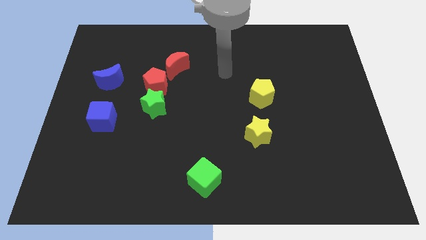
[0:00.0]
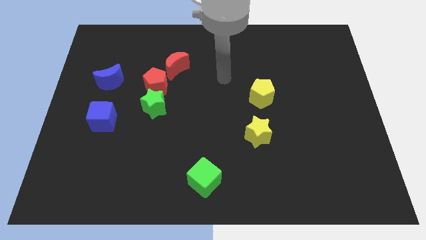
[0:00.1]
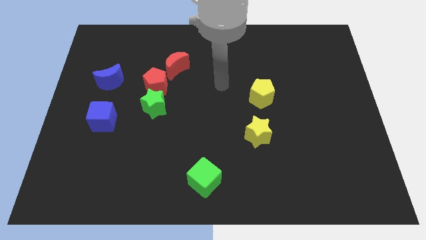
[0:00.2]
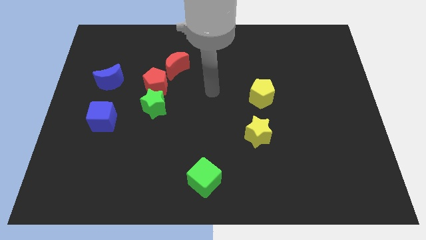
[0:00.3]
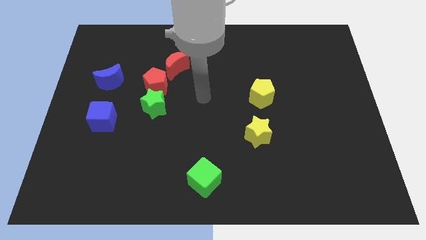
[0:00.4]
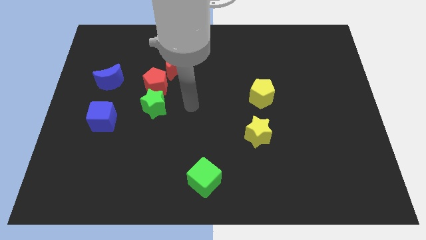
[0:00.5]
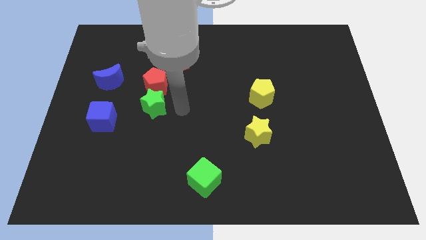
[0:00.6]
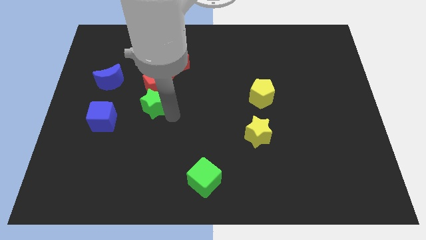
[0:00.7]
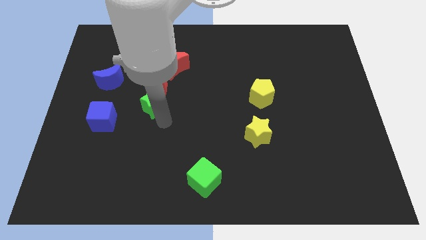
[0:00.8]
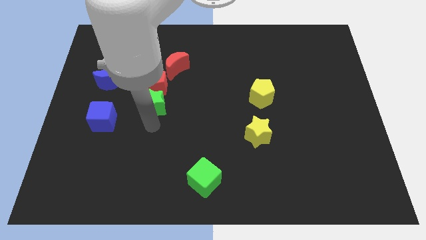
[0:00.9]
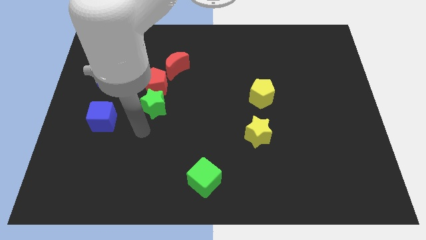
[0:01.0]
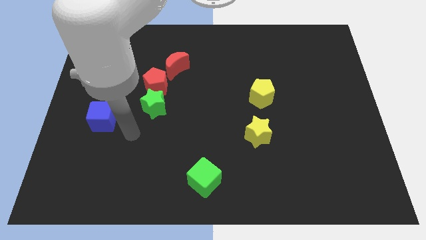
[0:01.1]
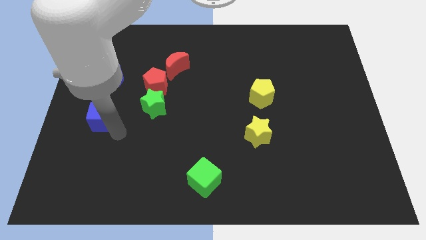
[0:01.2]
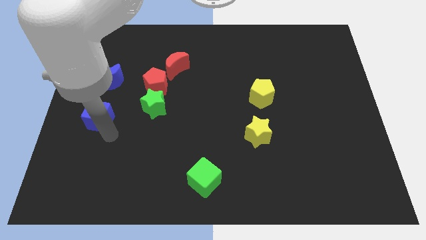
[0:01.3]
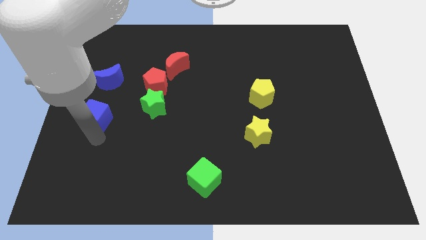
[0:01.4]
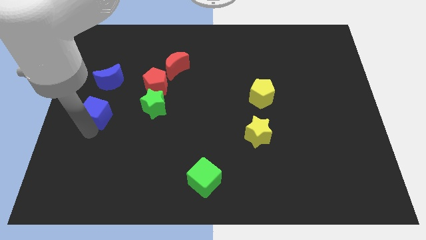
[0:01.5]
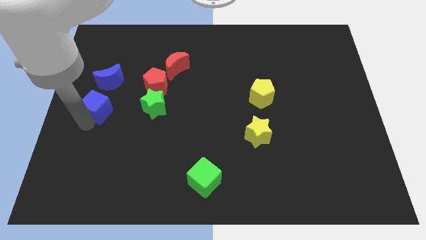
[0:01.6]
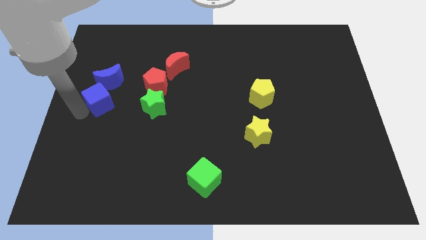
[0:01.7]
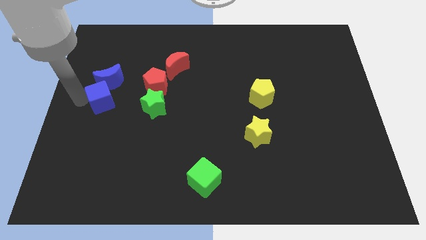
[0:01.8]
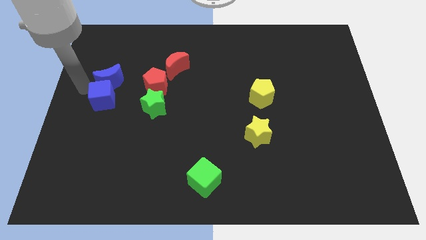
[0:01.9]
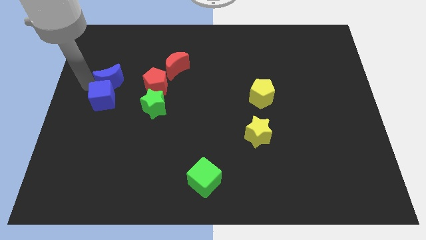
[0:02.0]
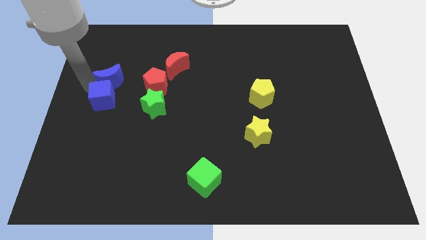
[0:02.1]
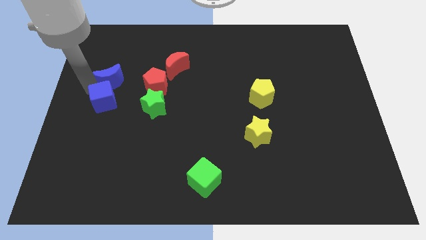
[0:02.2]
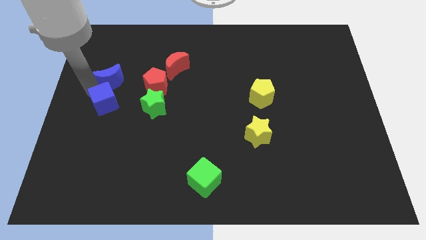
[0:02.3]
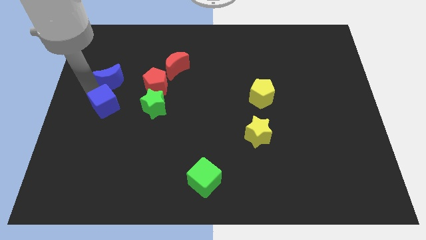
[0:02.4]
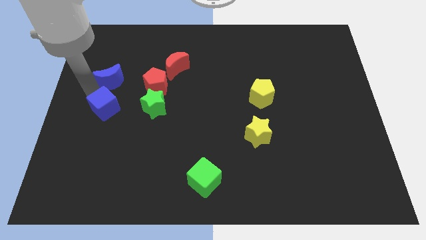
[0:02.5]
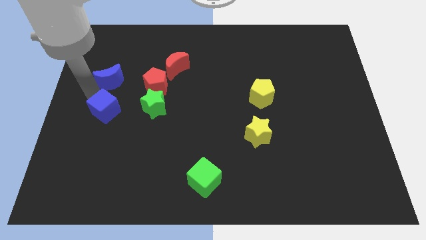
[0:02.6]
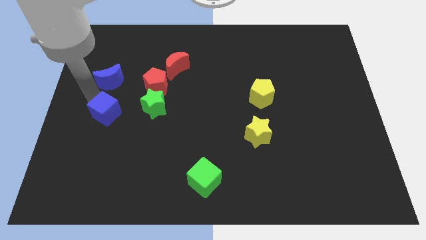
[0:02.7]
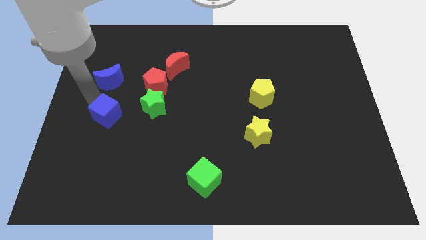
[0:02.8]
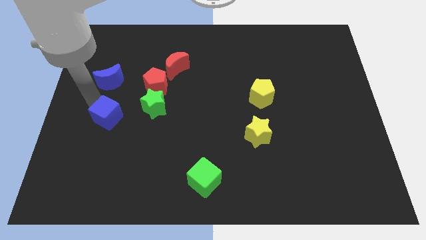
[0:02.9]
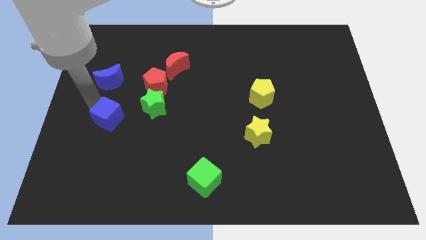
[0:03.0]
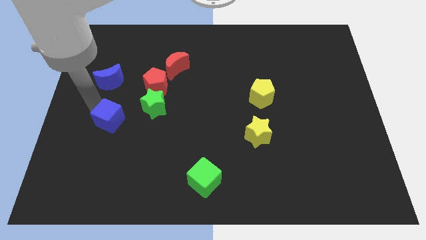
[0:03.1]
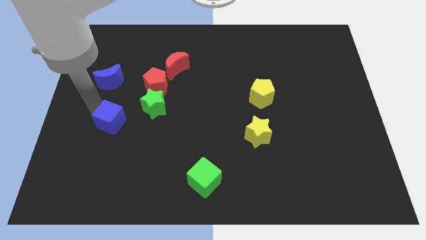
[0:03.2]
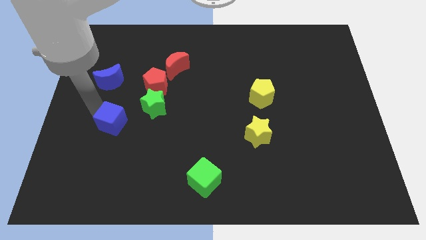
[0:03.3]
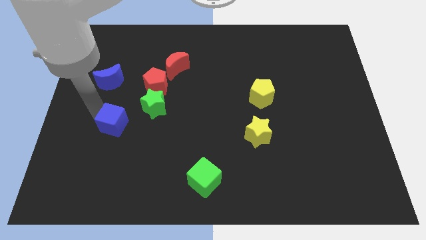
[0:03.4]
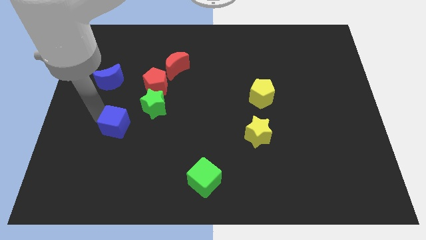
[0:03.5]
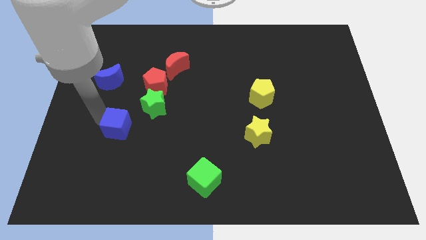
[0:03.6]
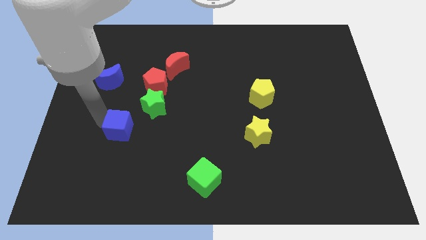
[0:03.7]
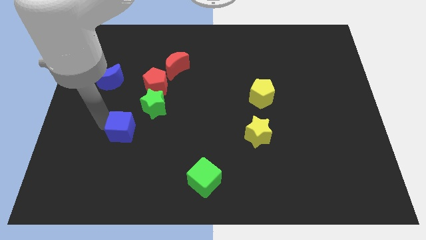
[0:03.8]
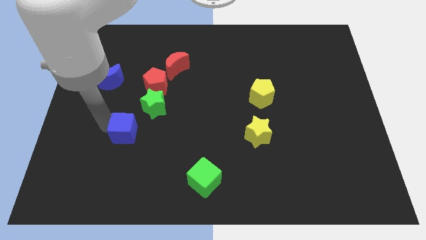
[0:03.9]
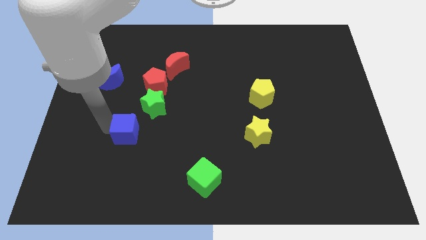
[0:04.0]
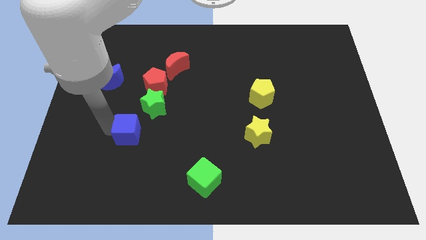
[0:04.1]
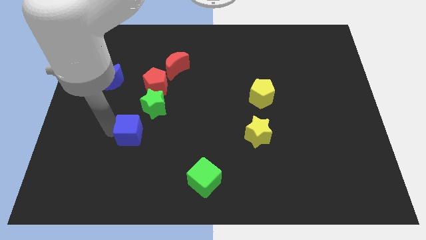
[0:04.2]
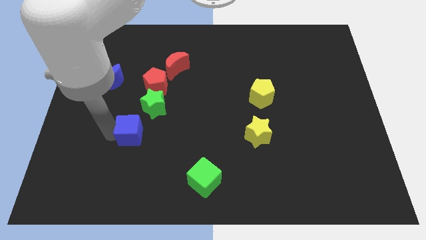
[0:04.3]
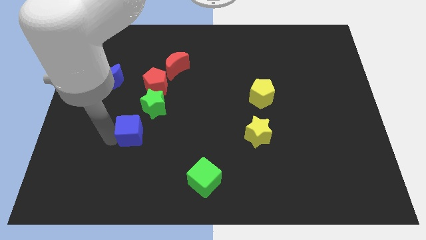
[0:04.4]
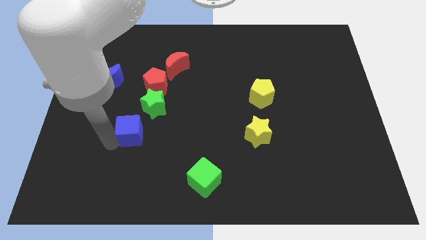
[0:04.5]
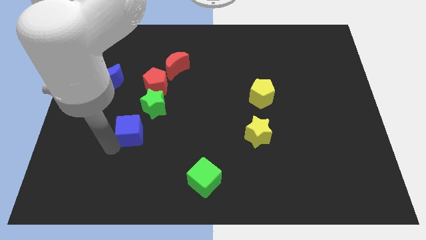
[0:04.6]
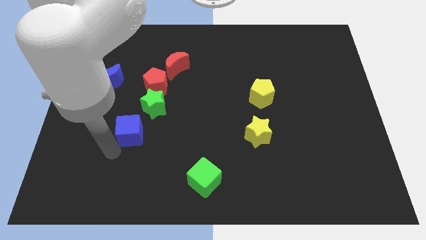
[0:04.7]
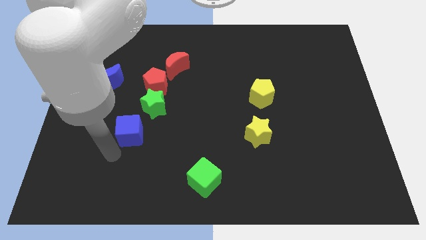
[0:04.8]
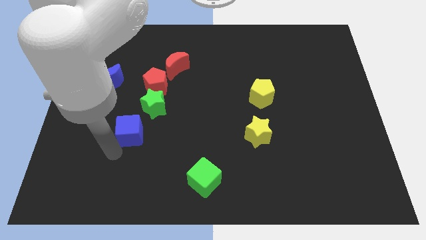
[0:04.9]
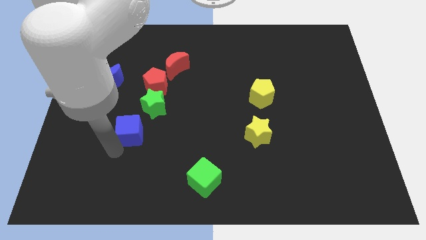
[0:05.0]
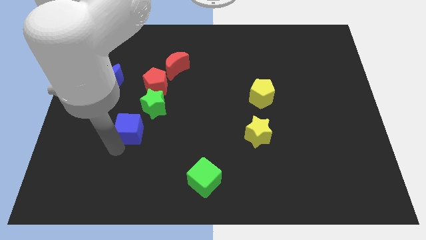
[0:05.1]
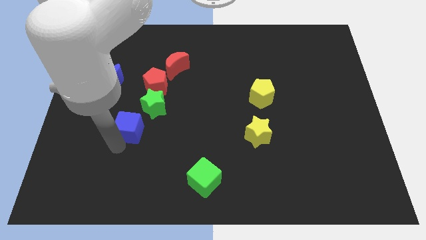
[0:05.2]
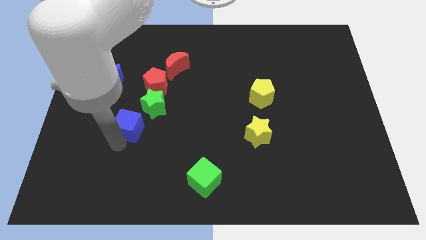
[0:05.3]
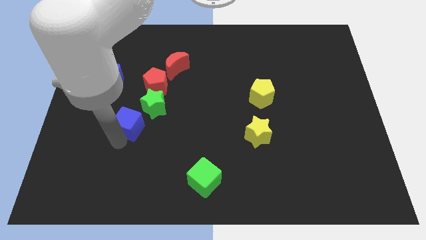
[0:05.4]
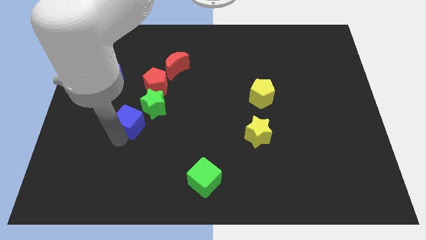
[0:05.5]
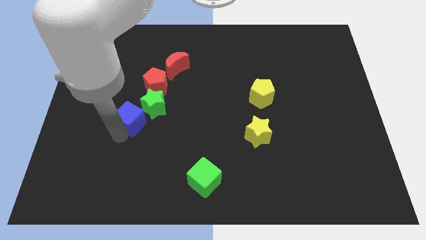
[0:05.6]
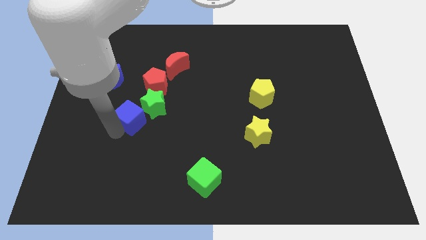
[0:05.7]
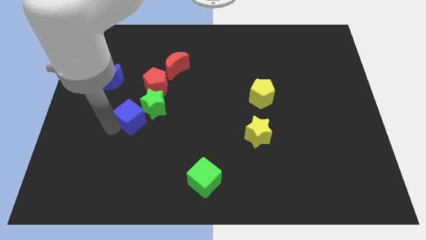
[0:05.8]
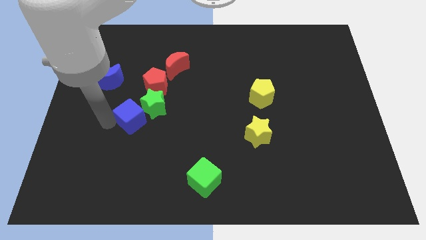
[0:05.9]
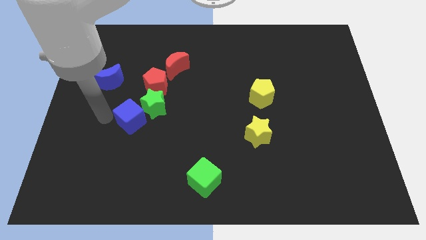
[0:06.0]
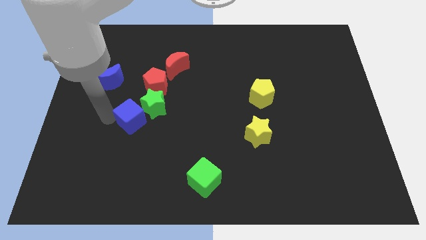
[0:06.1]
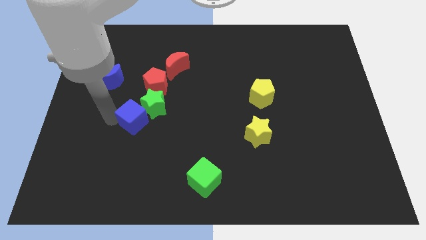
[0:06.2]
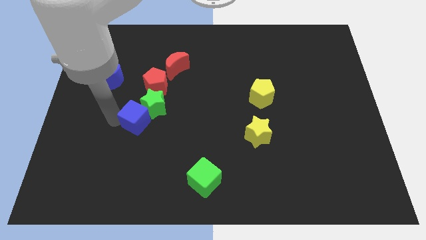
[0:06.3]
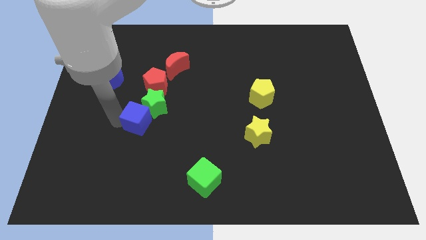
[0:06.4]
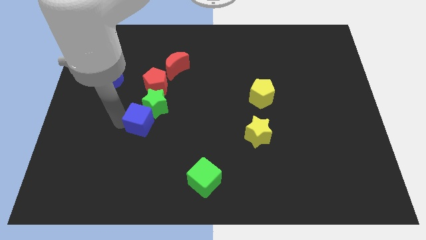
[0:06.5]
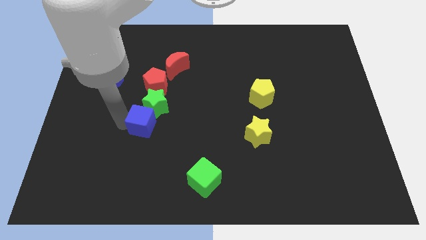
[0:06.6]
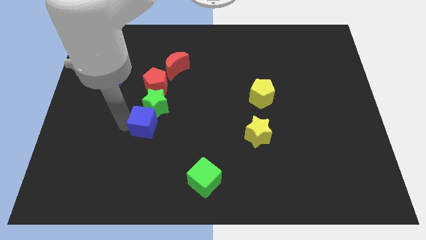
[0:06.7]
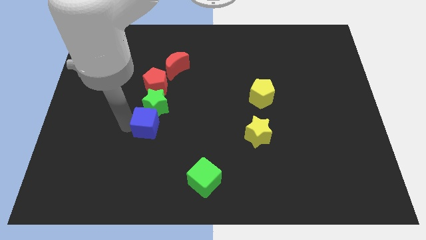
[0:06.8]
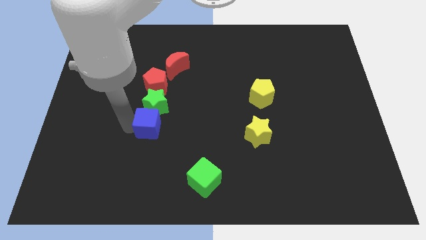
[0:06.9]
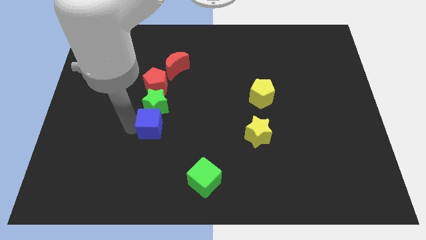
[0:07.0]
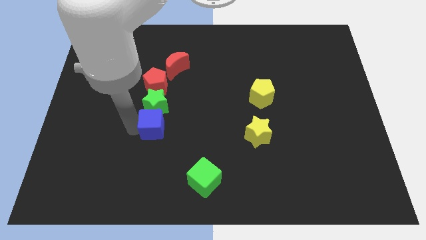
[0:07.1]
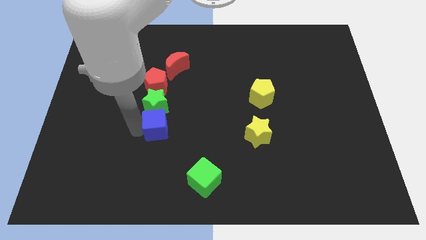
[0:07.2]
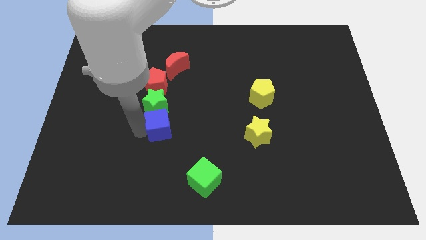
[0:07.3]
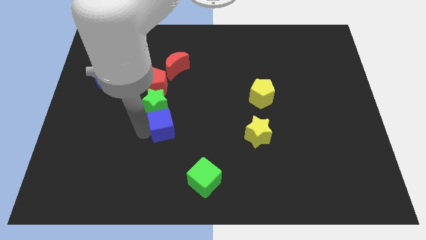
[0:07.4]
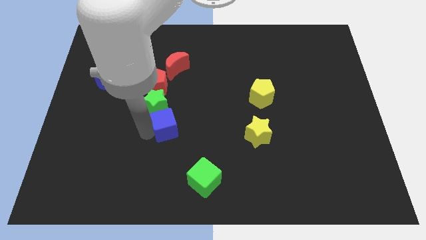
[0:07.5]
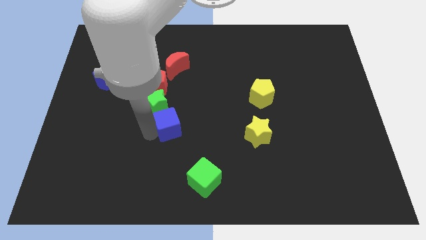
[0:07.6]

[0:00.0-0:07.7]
move the blue cube to the middle
